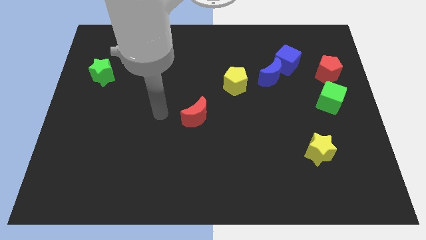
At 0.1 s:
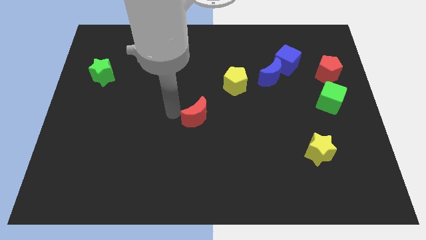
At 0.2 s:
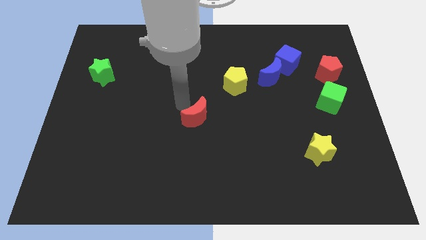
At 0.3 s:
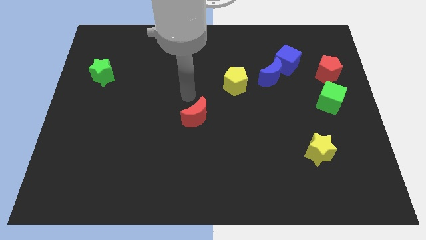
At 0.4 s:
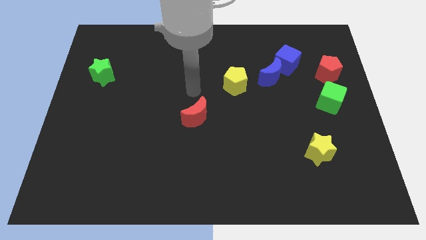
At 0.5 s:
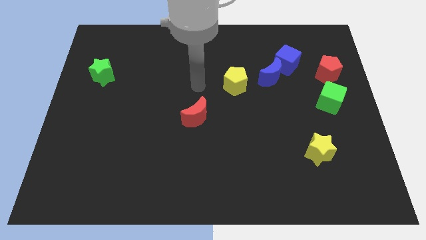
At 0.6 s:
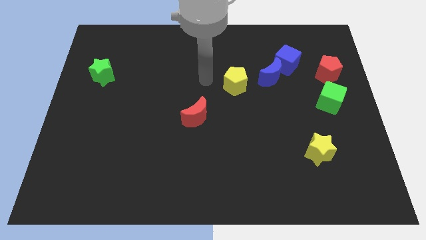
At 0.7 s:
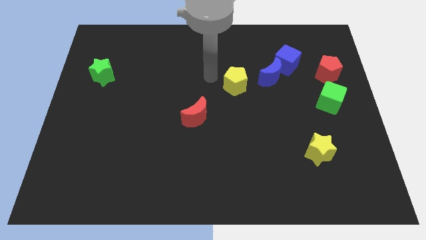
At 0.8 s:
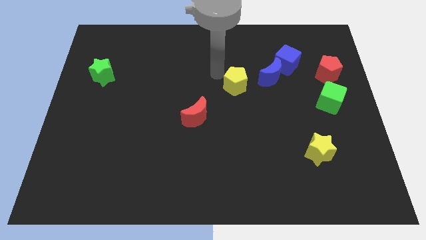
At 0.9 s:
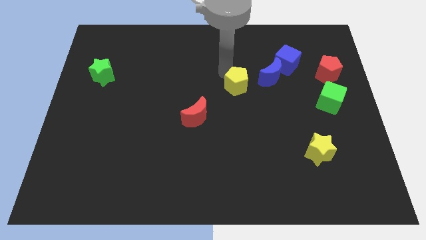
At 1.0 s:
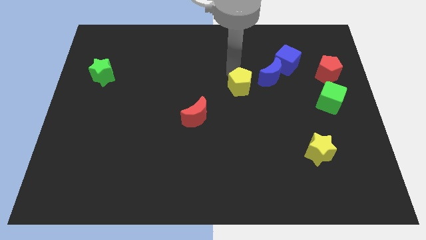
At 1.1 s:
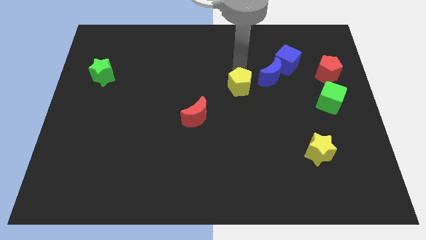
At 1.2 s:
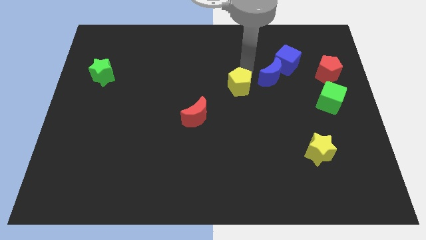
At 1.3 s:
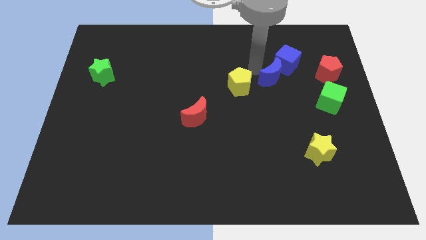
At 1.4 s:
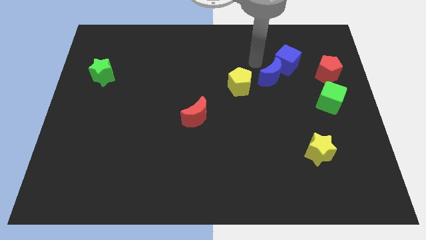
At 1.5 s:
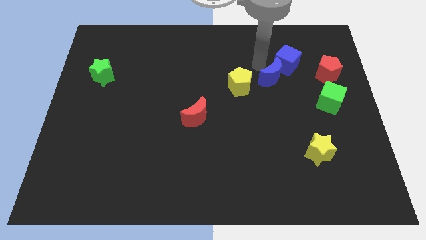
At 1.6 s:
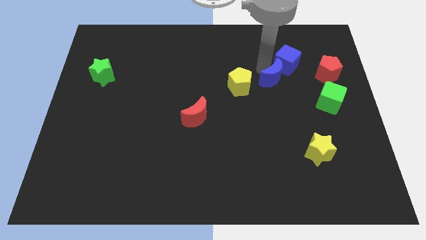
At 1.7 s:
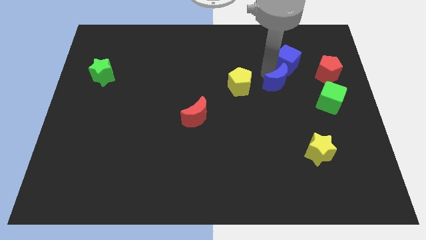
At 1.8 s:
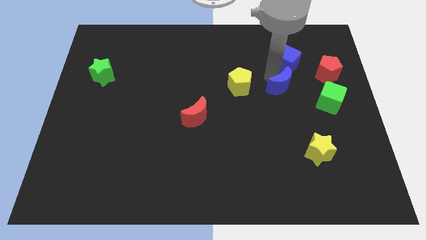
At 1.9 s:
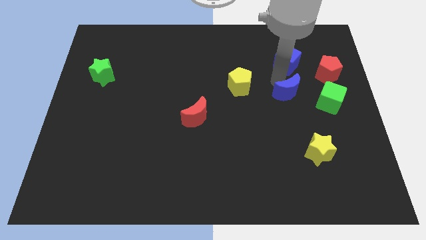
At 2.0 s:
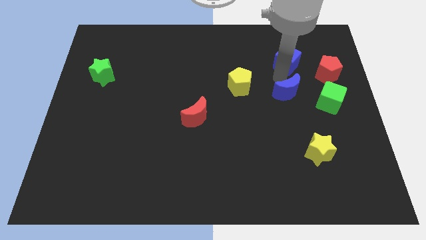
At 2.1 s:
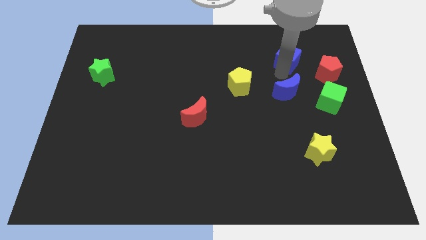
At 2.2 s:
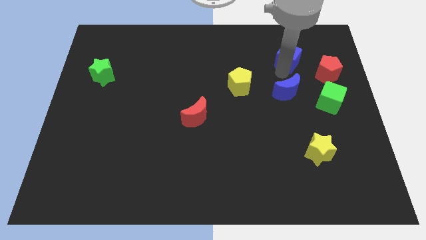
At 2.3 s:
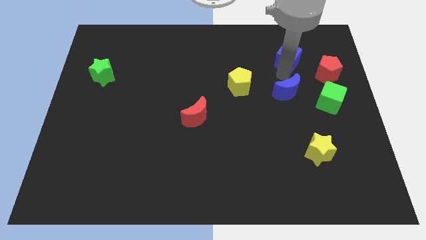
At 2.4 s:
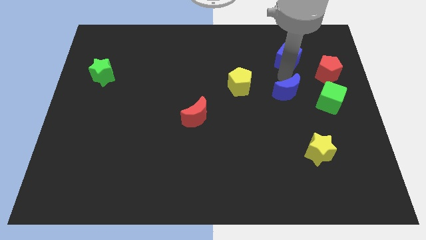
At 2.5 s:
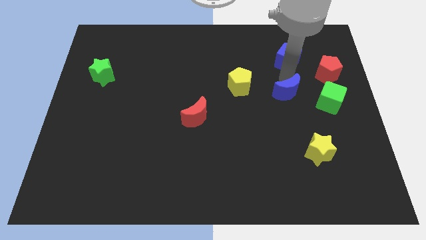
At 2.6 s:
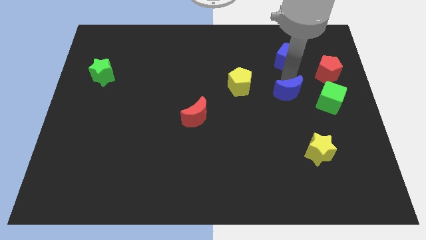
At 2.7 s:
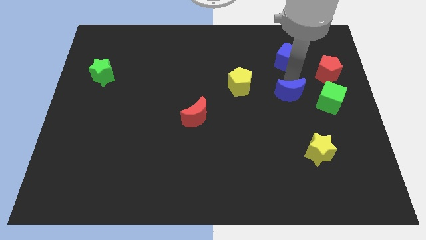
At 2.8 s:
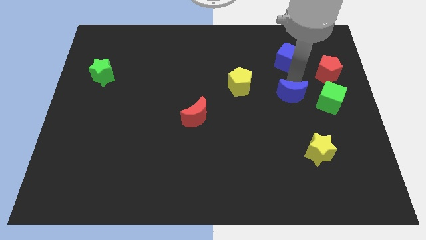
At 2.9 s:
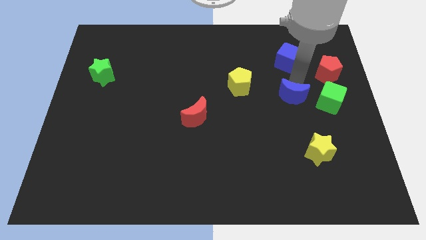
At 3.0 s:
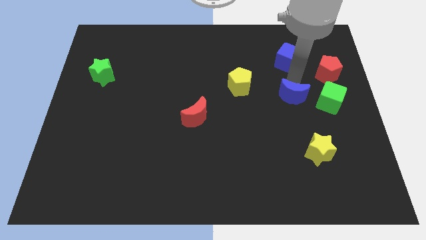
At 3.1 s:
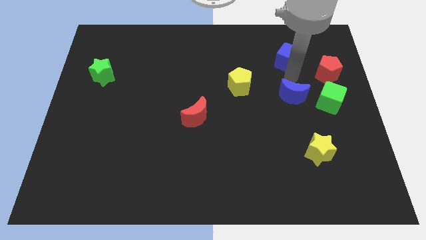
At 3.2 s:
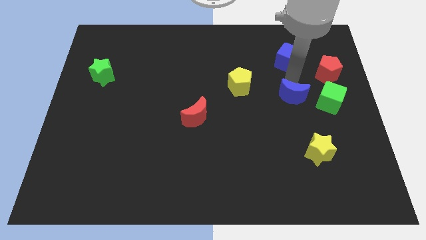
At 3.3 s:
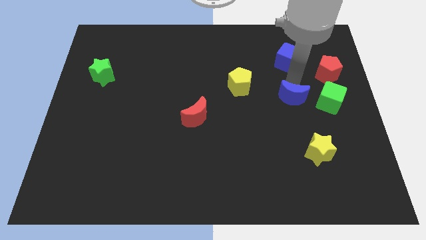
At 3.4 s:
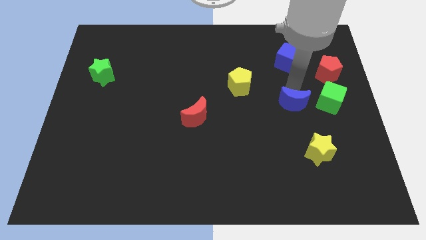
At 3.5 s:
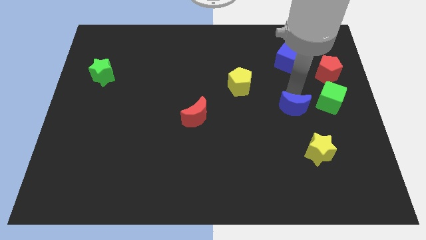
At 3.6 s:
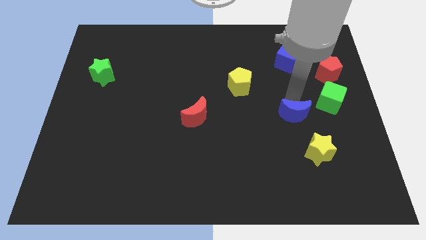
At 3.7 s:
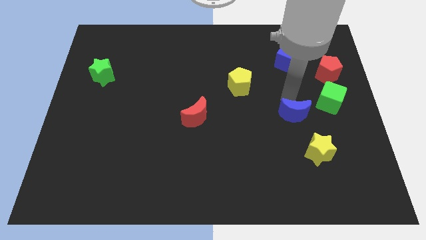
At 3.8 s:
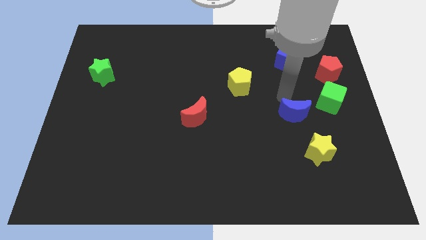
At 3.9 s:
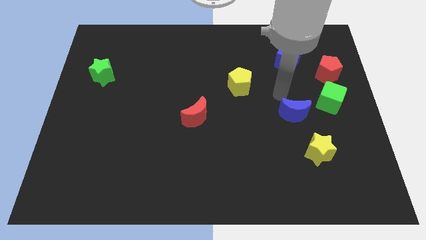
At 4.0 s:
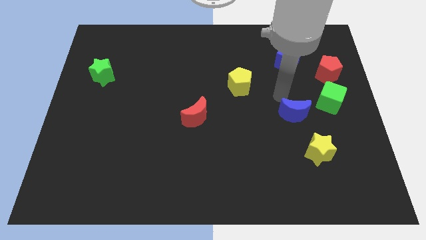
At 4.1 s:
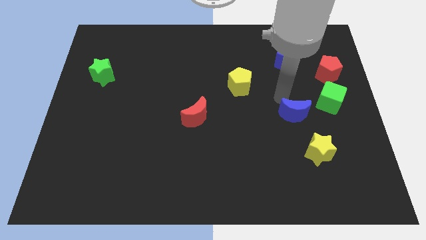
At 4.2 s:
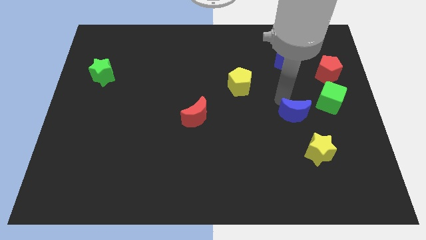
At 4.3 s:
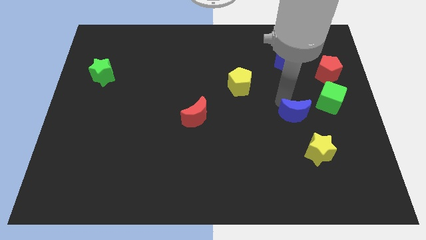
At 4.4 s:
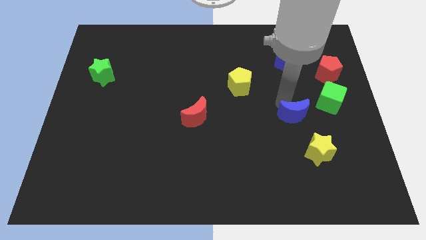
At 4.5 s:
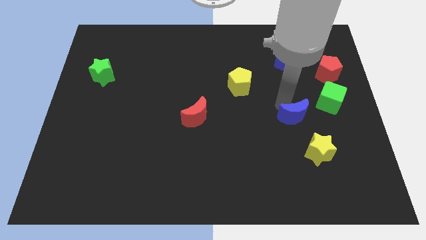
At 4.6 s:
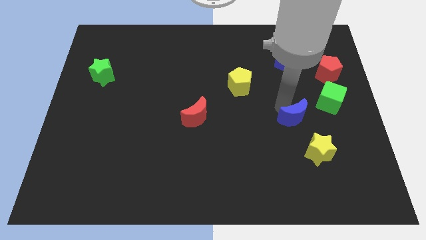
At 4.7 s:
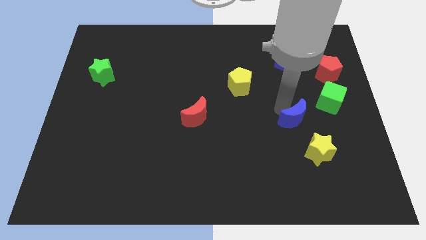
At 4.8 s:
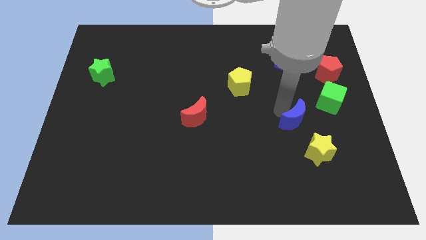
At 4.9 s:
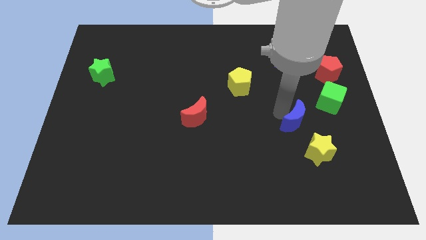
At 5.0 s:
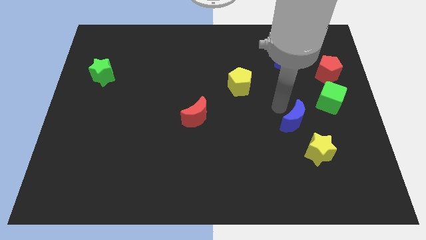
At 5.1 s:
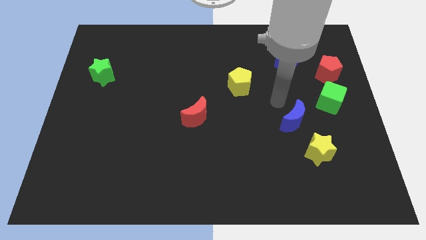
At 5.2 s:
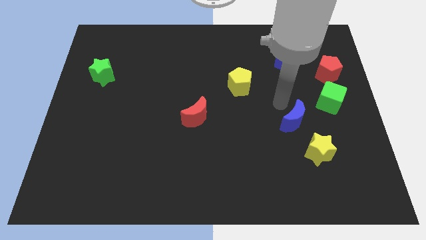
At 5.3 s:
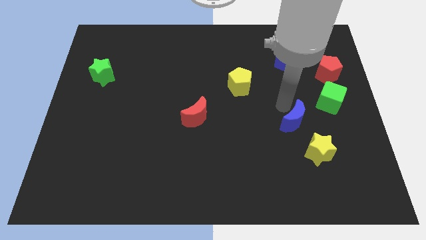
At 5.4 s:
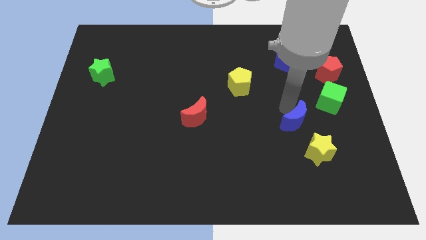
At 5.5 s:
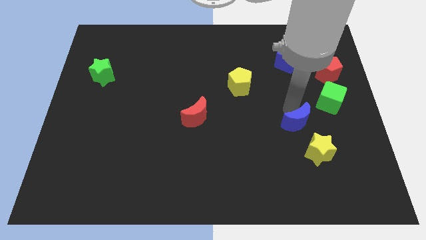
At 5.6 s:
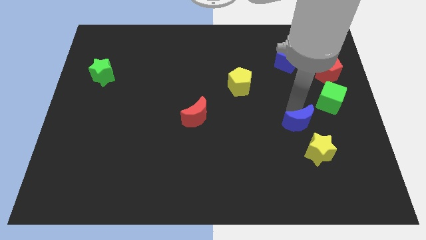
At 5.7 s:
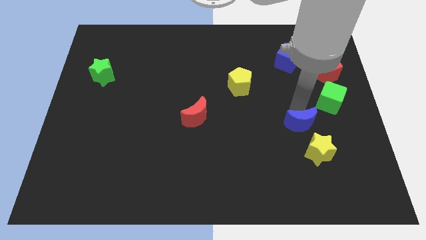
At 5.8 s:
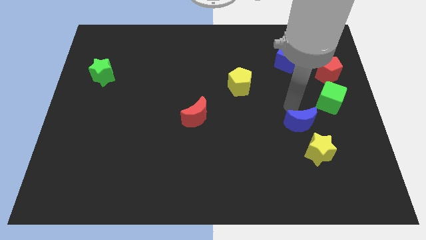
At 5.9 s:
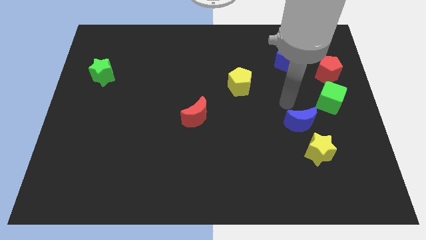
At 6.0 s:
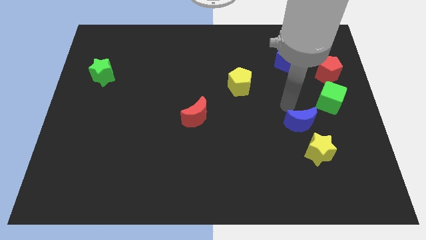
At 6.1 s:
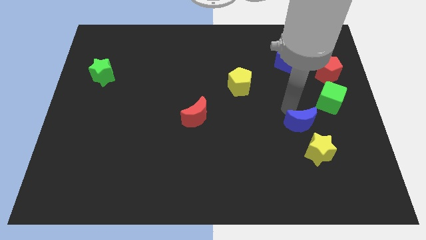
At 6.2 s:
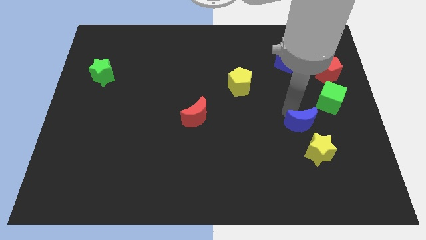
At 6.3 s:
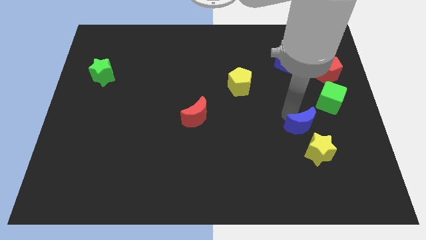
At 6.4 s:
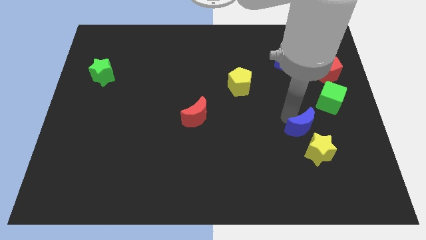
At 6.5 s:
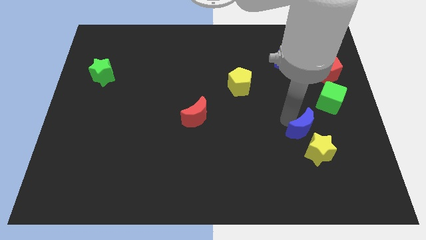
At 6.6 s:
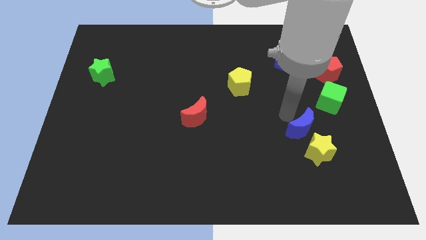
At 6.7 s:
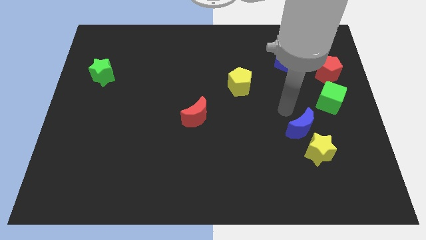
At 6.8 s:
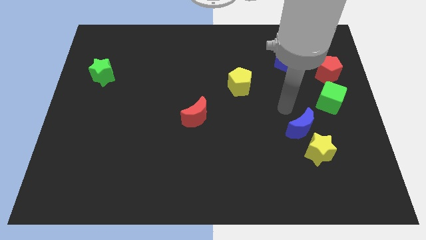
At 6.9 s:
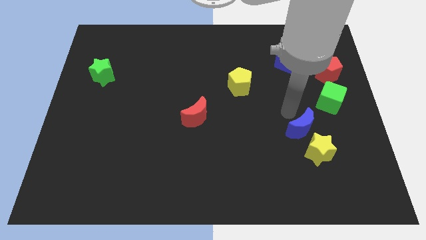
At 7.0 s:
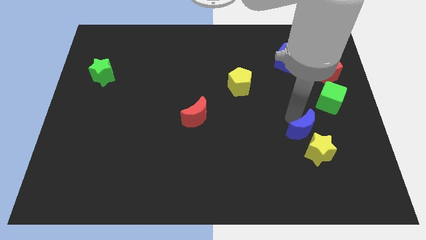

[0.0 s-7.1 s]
move the blue moon to the yellow star

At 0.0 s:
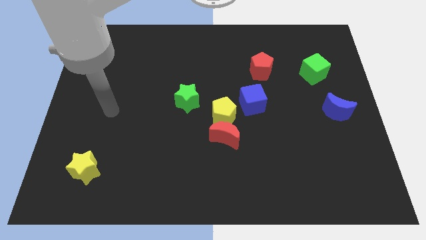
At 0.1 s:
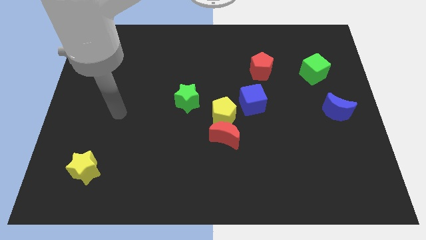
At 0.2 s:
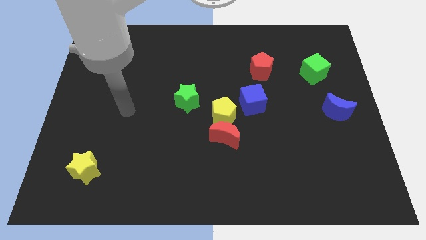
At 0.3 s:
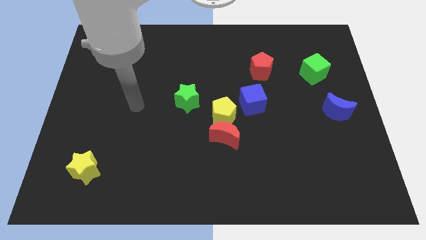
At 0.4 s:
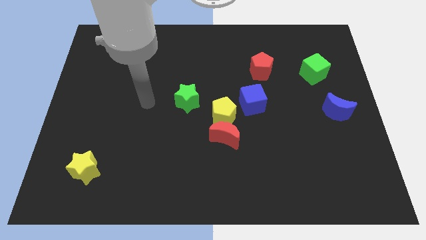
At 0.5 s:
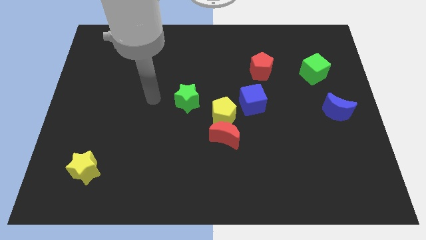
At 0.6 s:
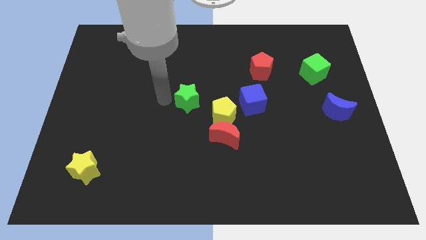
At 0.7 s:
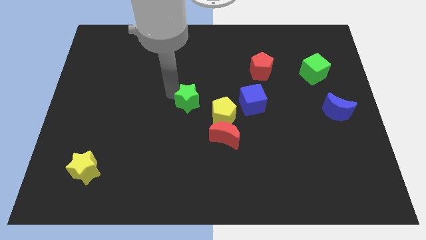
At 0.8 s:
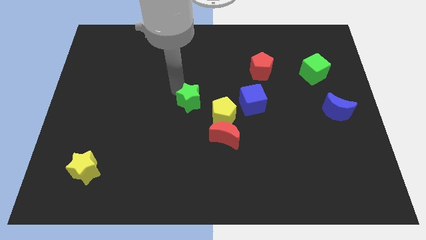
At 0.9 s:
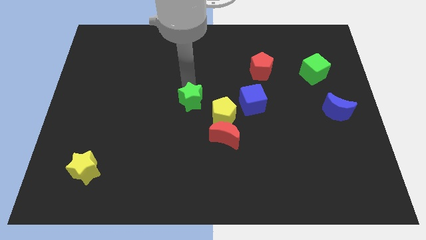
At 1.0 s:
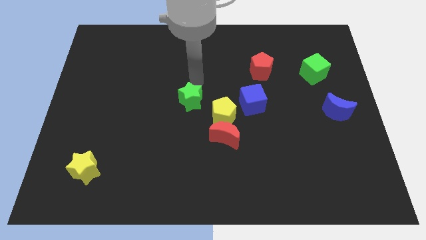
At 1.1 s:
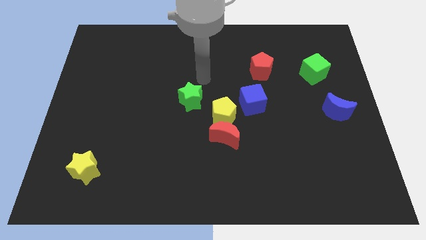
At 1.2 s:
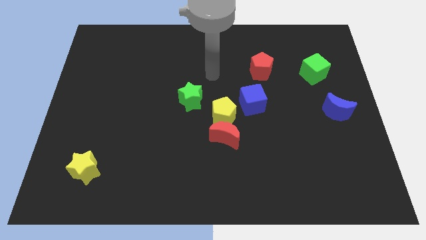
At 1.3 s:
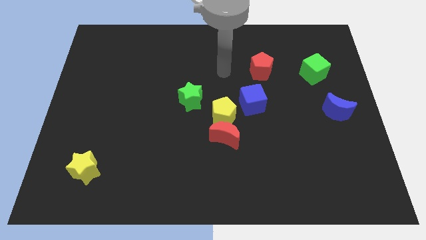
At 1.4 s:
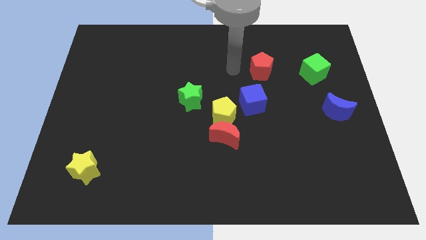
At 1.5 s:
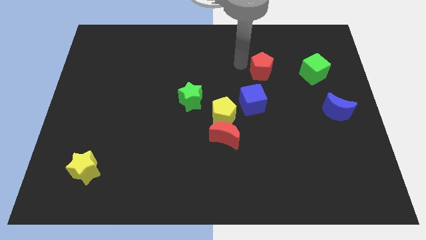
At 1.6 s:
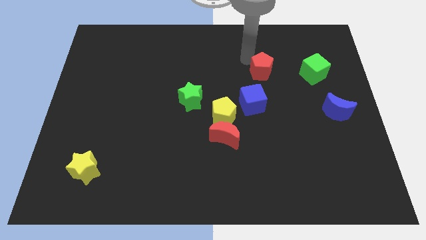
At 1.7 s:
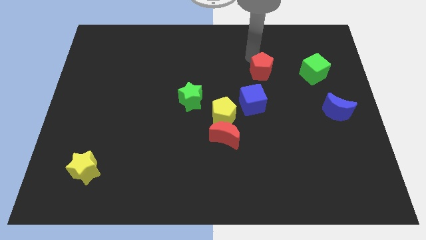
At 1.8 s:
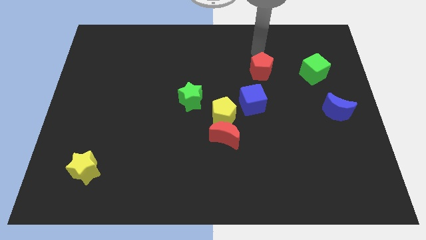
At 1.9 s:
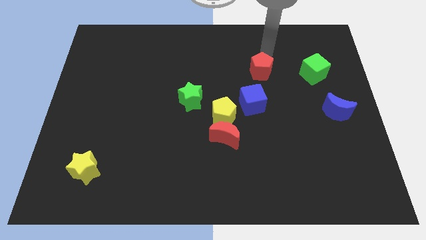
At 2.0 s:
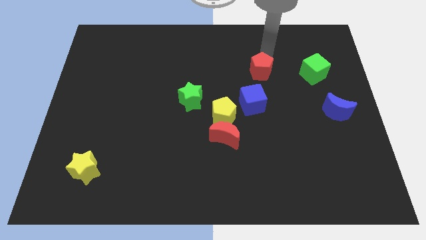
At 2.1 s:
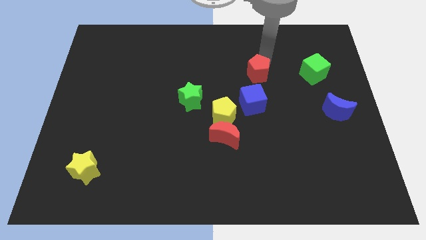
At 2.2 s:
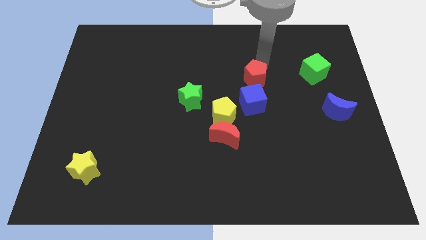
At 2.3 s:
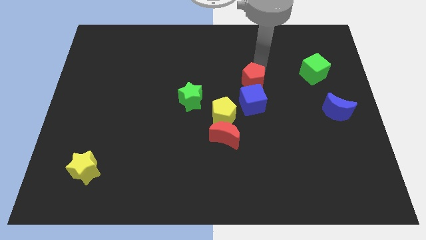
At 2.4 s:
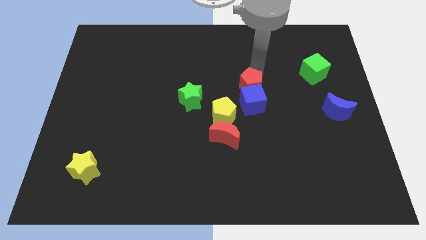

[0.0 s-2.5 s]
push the red pentagon close to the blue cube
